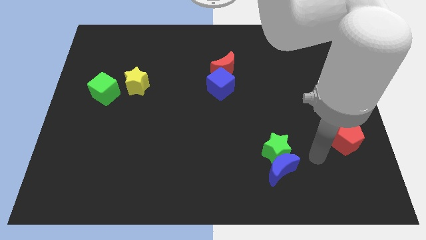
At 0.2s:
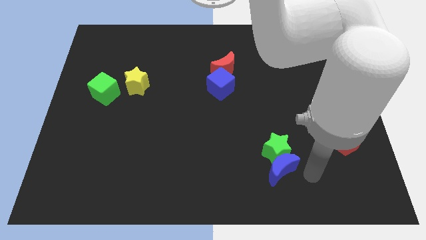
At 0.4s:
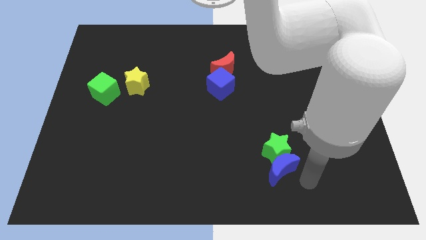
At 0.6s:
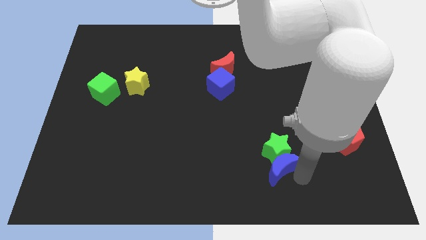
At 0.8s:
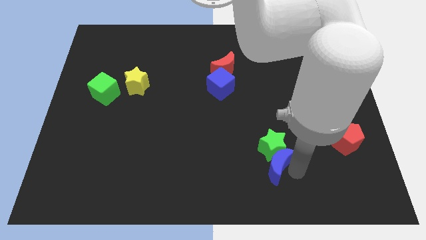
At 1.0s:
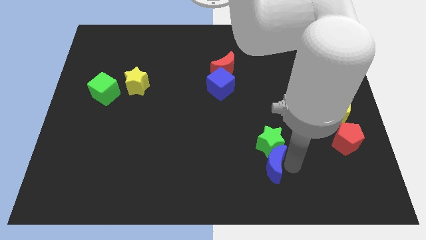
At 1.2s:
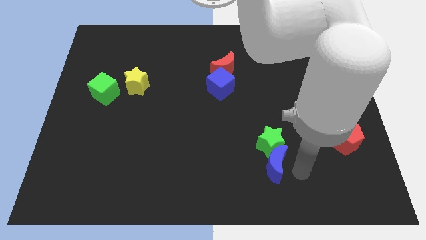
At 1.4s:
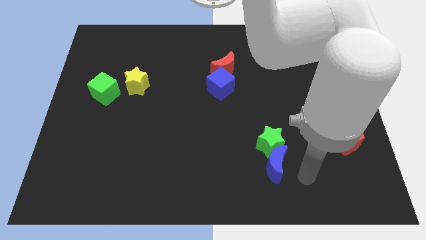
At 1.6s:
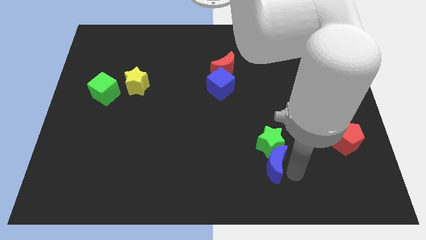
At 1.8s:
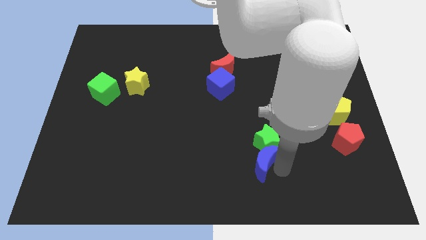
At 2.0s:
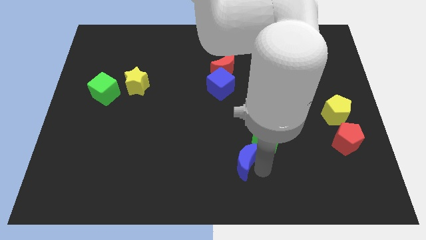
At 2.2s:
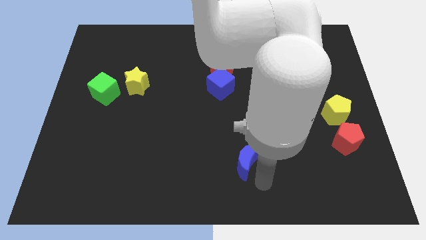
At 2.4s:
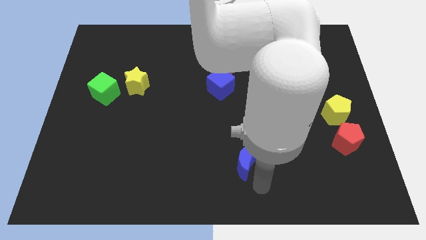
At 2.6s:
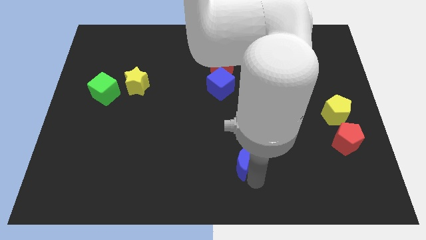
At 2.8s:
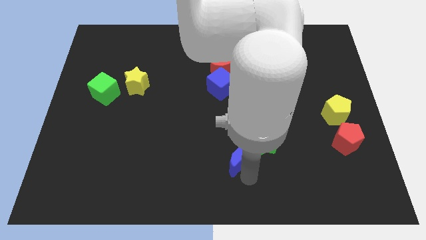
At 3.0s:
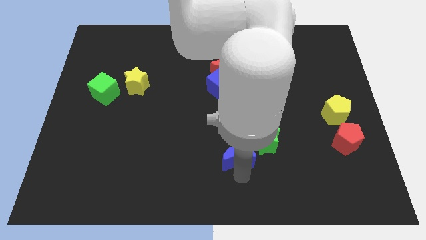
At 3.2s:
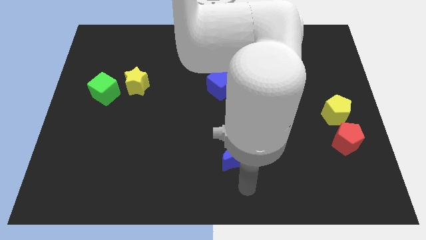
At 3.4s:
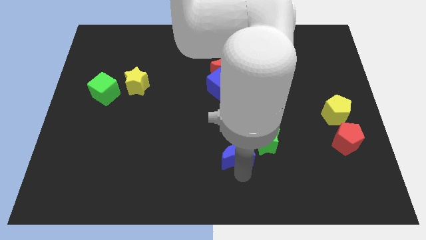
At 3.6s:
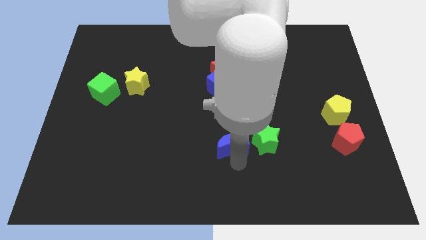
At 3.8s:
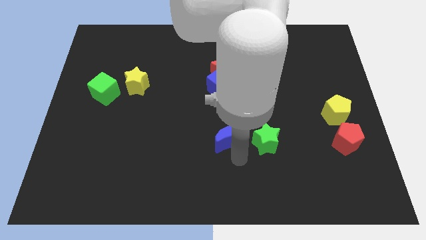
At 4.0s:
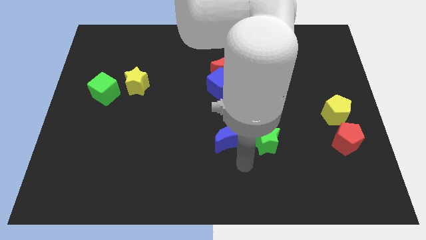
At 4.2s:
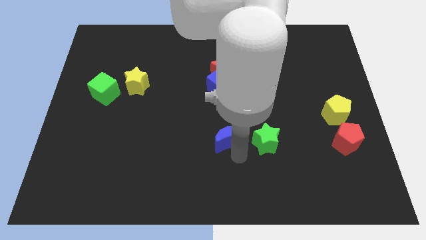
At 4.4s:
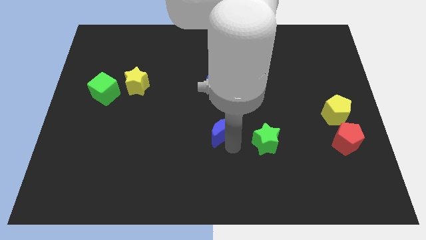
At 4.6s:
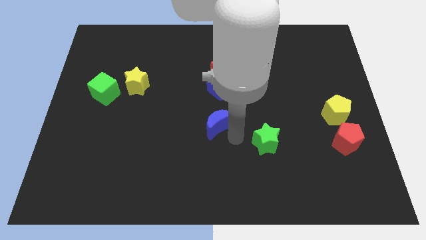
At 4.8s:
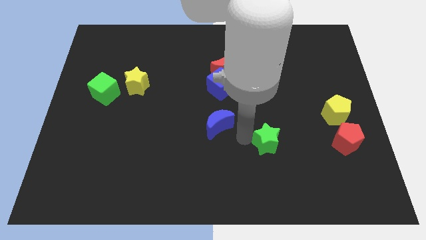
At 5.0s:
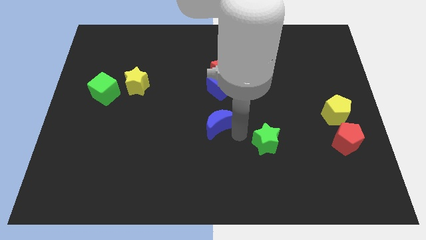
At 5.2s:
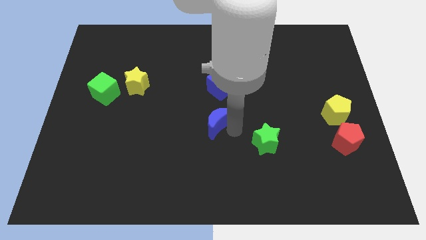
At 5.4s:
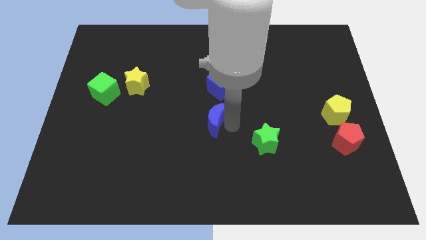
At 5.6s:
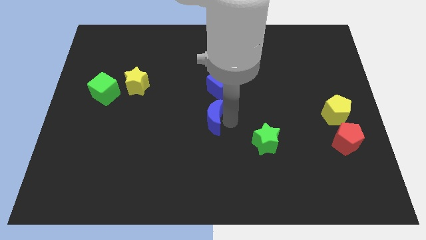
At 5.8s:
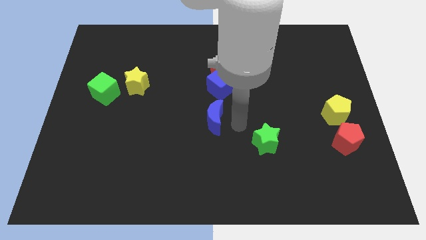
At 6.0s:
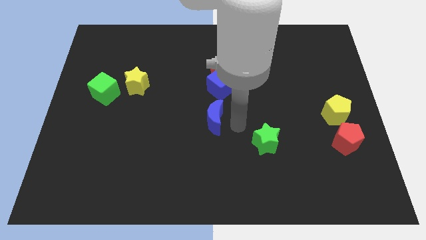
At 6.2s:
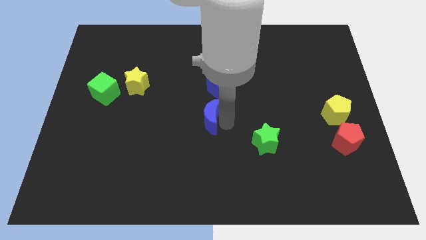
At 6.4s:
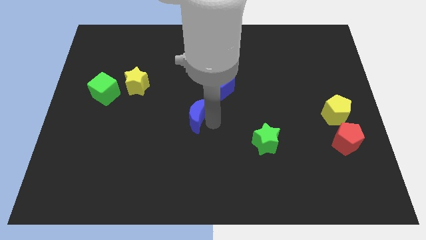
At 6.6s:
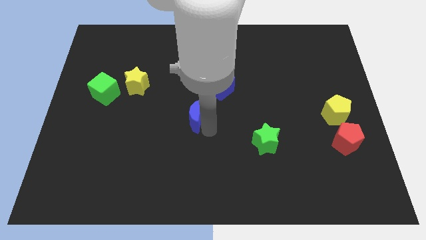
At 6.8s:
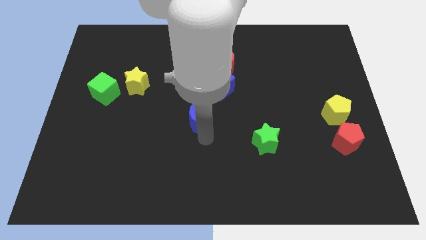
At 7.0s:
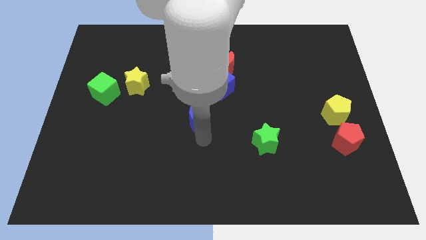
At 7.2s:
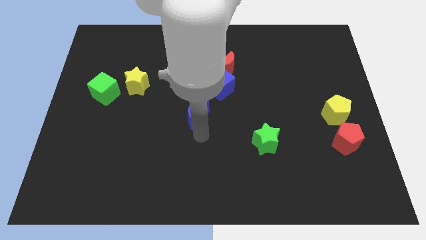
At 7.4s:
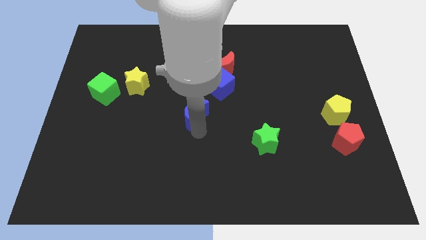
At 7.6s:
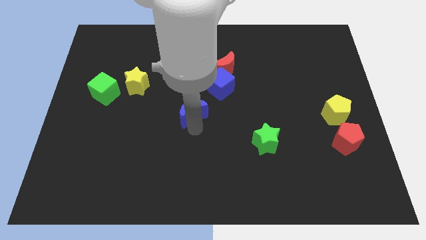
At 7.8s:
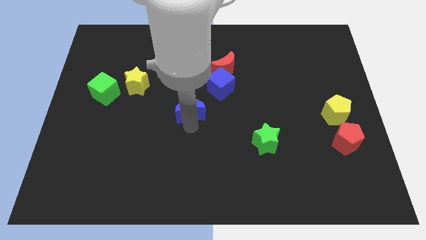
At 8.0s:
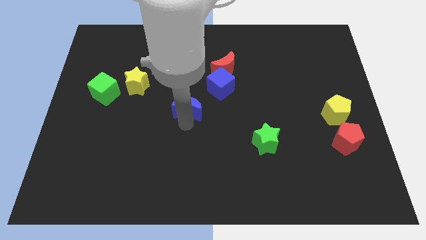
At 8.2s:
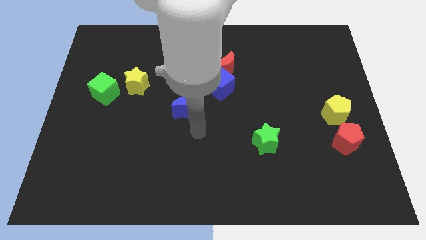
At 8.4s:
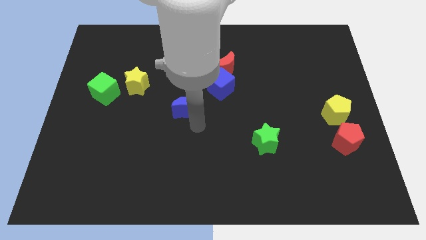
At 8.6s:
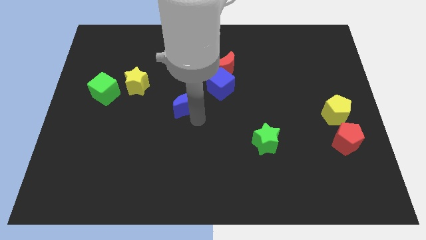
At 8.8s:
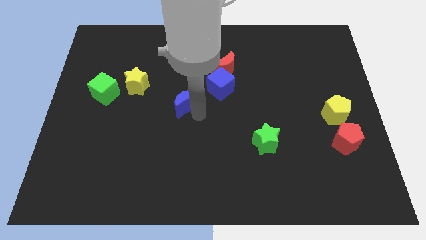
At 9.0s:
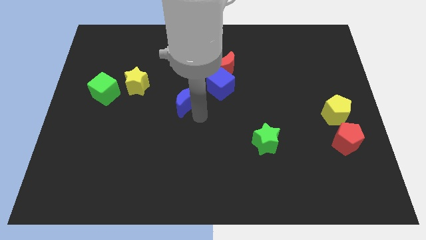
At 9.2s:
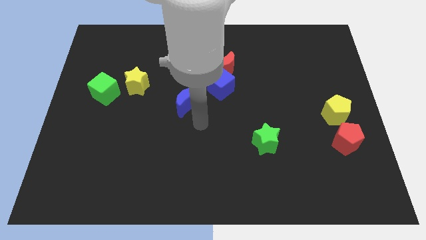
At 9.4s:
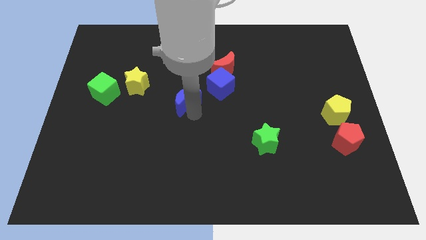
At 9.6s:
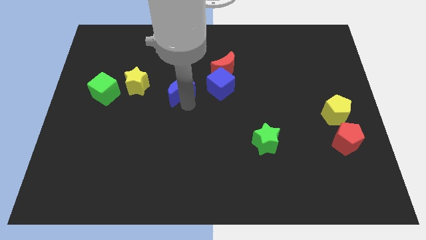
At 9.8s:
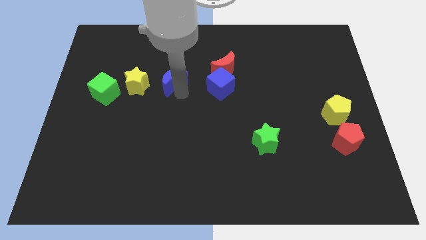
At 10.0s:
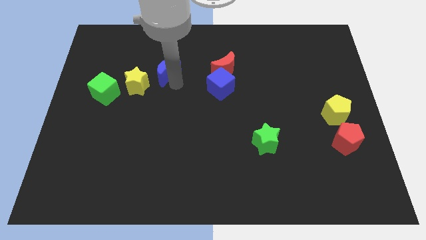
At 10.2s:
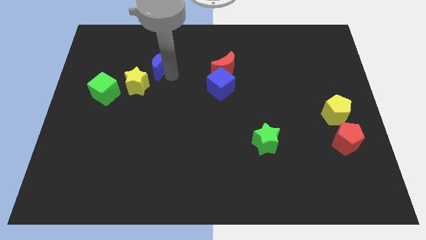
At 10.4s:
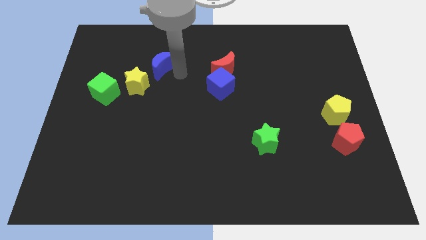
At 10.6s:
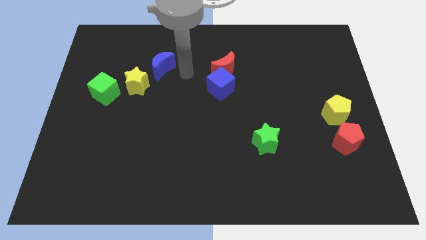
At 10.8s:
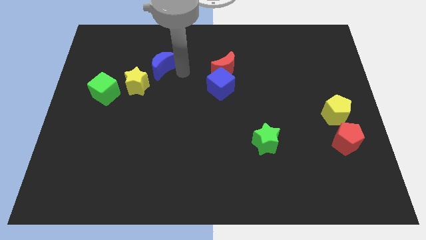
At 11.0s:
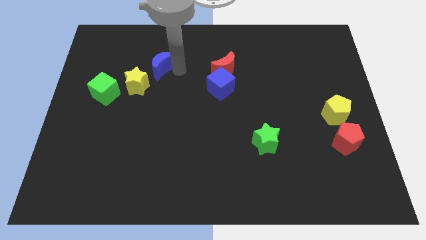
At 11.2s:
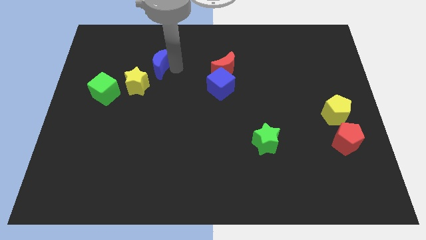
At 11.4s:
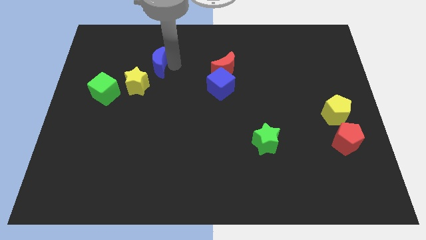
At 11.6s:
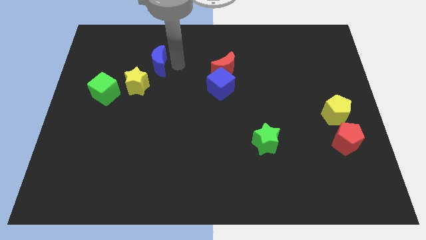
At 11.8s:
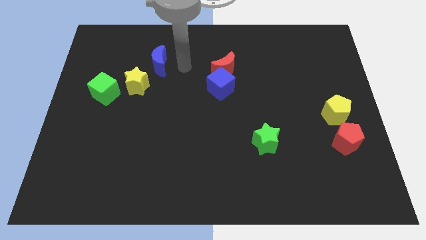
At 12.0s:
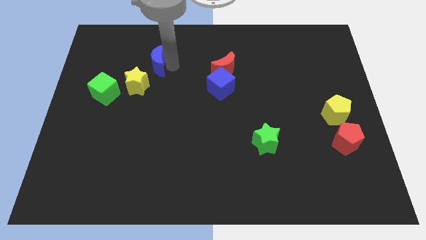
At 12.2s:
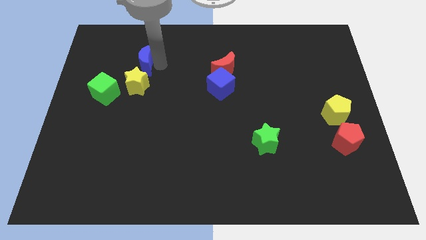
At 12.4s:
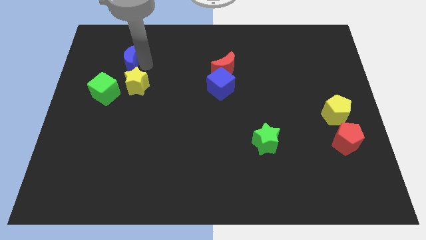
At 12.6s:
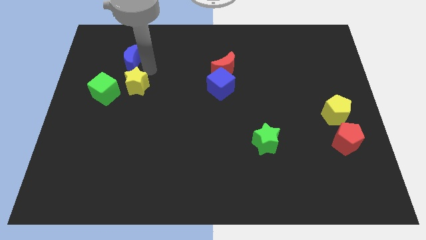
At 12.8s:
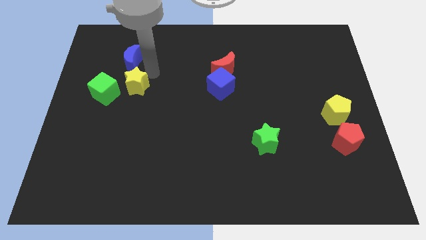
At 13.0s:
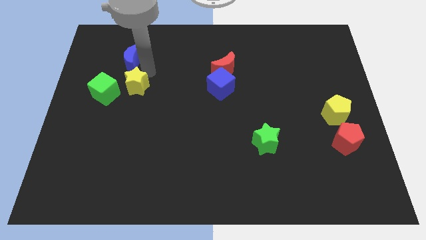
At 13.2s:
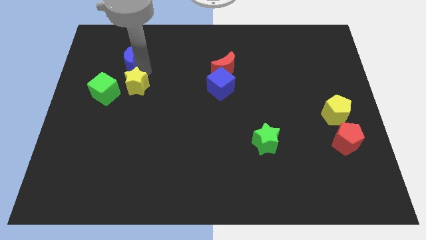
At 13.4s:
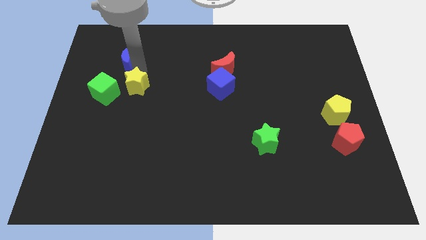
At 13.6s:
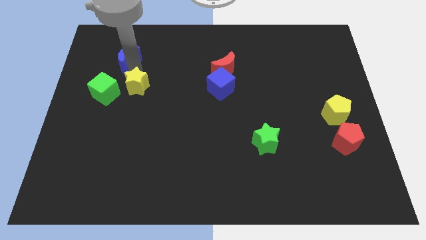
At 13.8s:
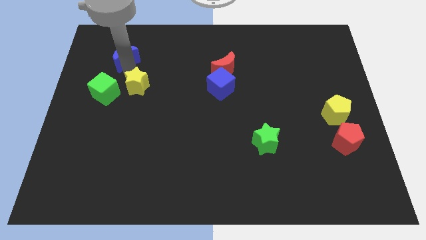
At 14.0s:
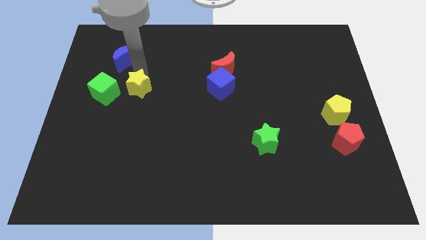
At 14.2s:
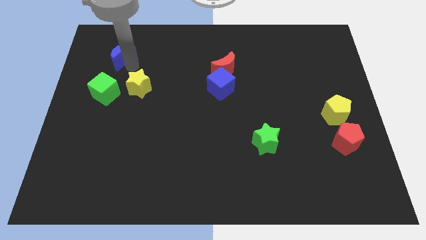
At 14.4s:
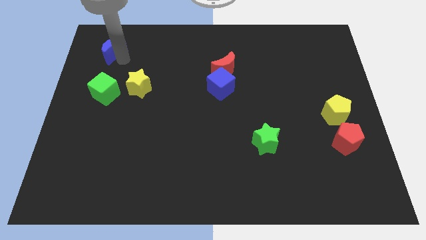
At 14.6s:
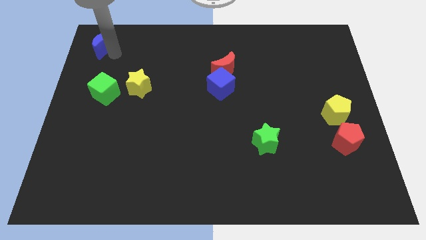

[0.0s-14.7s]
push the blue moon to the upper left corner

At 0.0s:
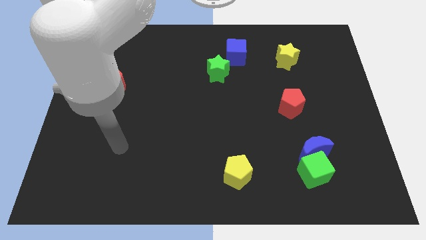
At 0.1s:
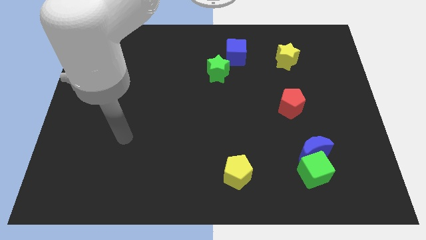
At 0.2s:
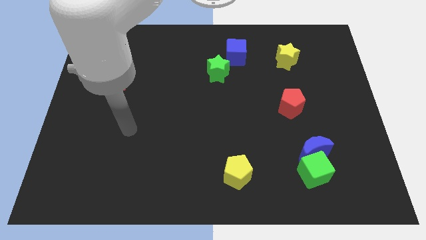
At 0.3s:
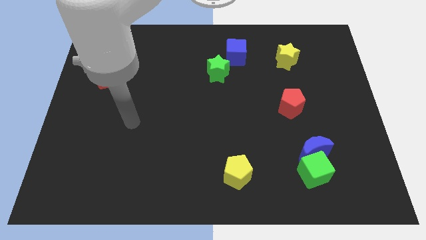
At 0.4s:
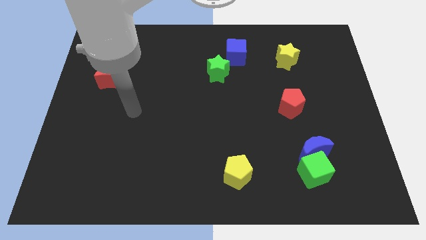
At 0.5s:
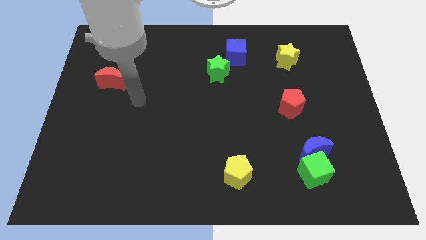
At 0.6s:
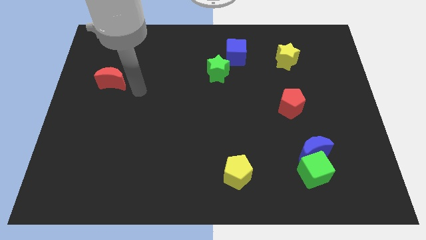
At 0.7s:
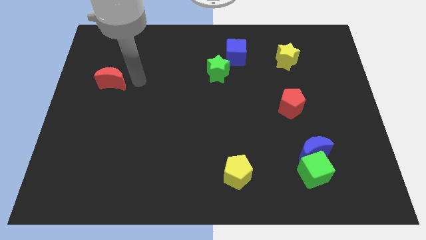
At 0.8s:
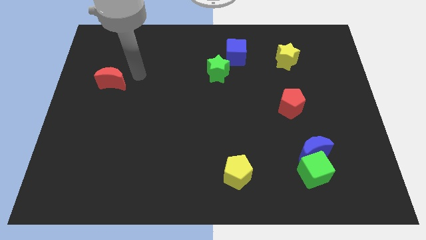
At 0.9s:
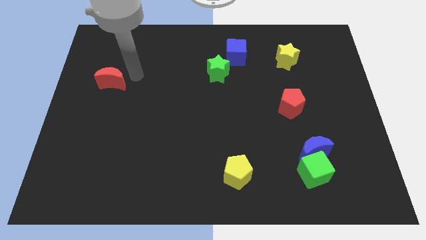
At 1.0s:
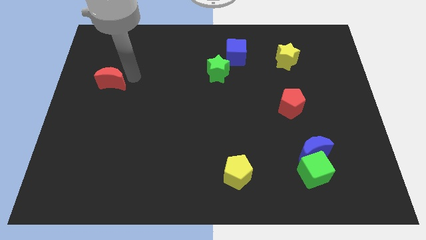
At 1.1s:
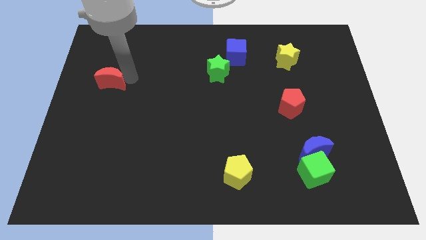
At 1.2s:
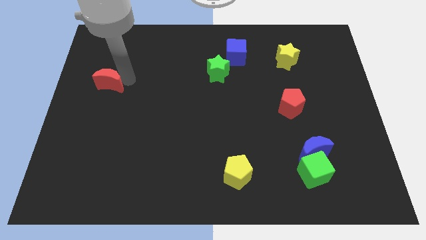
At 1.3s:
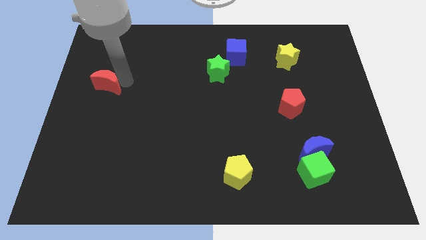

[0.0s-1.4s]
move the red moon to the center left
